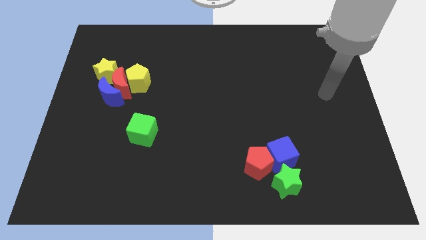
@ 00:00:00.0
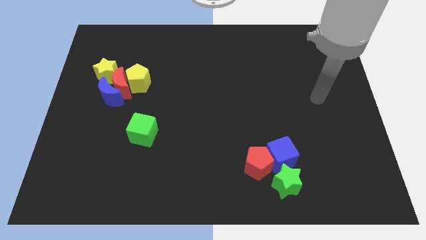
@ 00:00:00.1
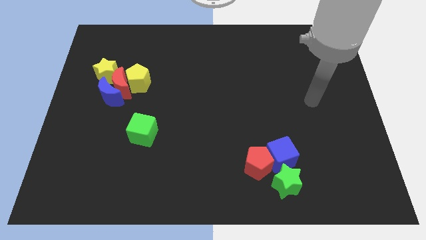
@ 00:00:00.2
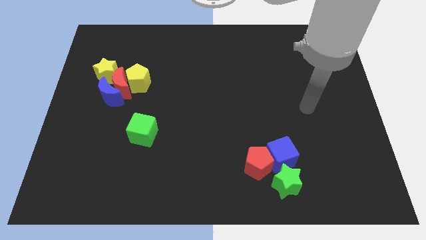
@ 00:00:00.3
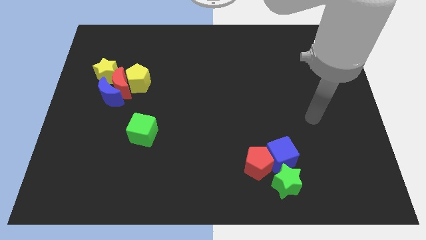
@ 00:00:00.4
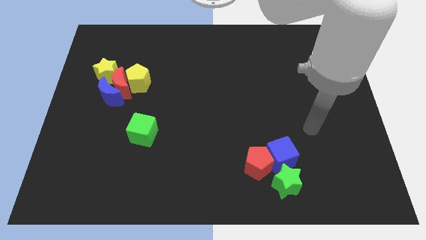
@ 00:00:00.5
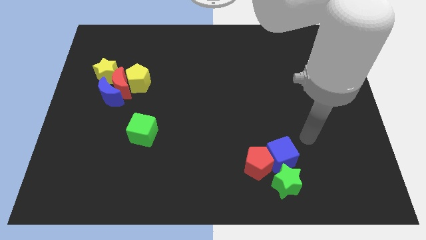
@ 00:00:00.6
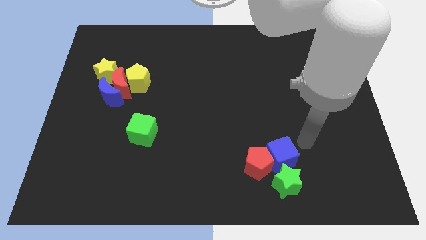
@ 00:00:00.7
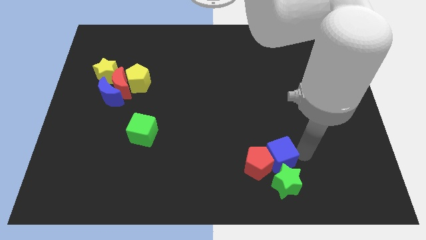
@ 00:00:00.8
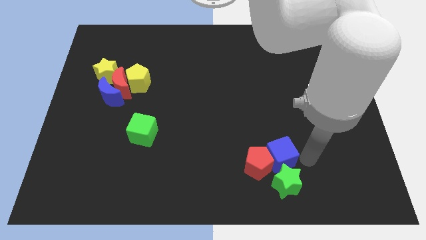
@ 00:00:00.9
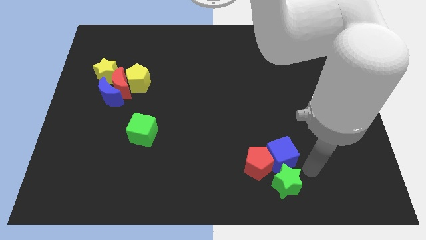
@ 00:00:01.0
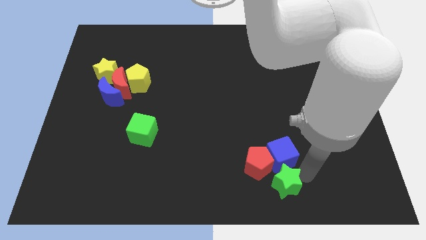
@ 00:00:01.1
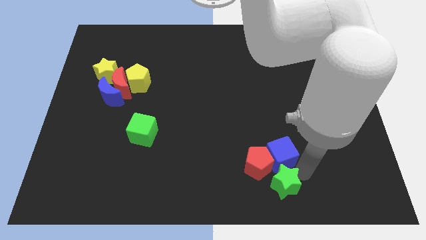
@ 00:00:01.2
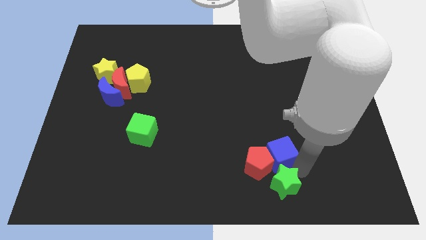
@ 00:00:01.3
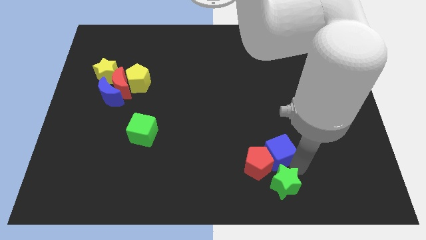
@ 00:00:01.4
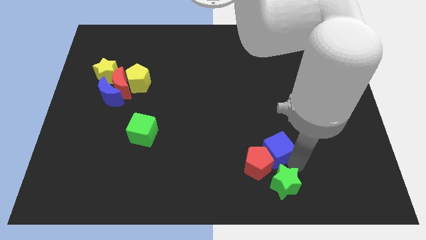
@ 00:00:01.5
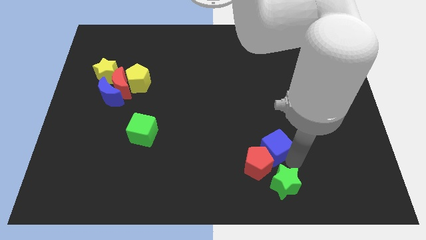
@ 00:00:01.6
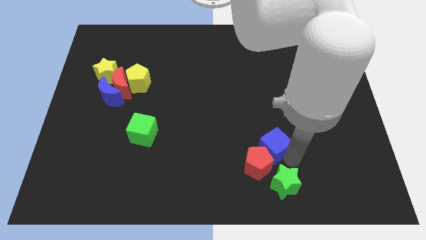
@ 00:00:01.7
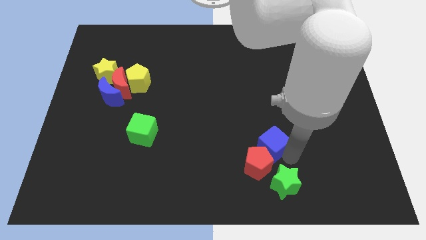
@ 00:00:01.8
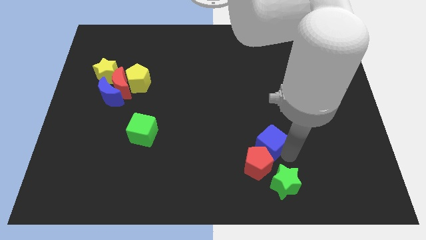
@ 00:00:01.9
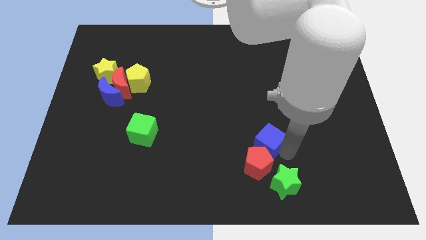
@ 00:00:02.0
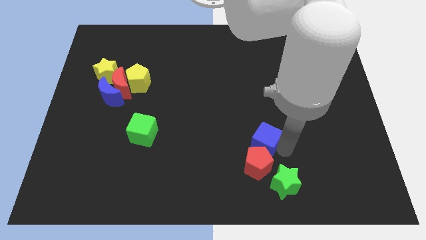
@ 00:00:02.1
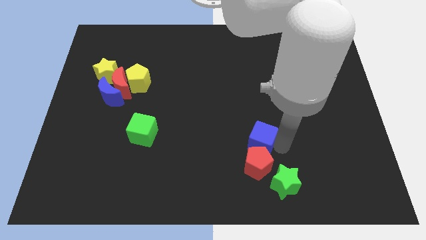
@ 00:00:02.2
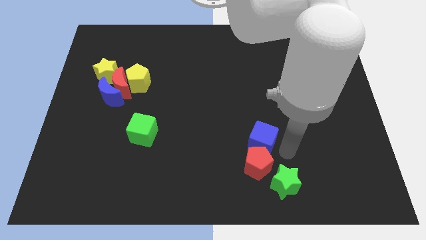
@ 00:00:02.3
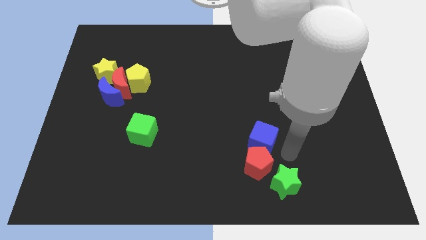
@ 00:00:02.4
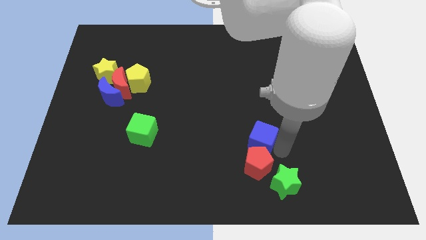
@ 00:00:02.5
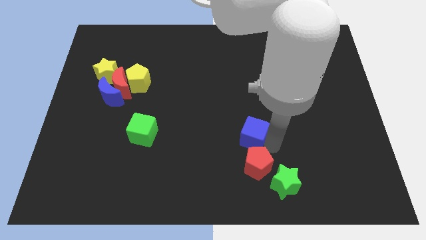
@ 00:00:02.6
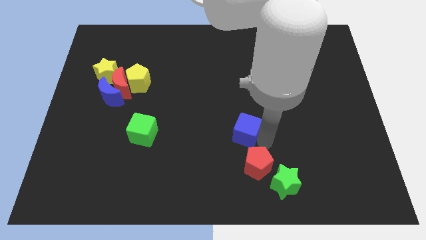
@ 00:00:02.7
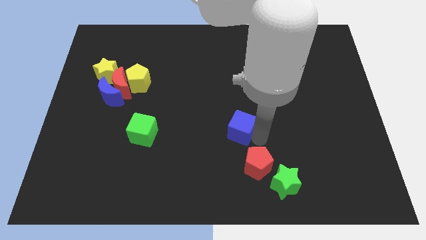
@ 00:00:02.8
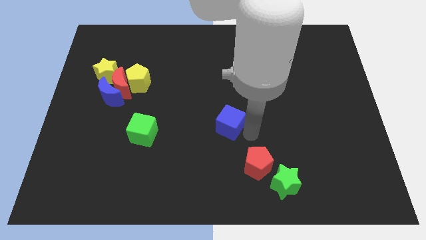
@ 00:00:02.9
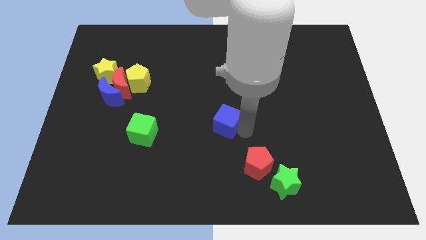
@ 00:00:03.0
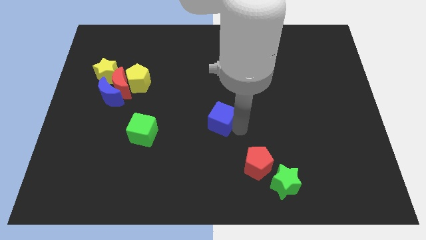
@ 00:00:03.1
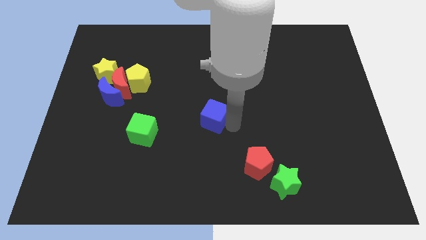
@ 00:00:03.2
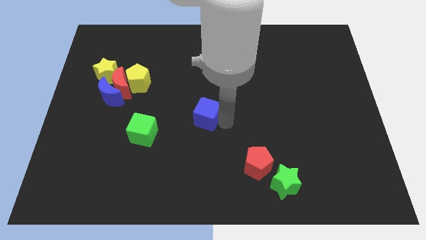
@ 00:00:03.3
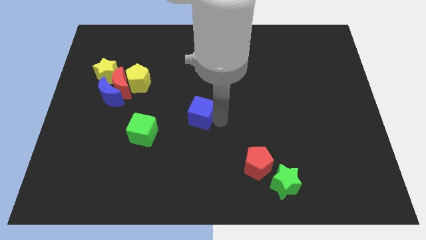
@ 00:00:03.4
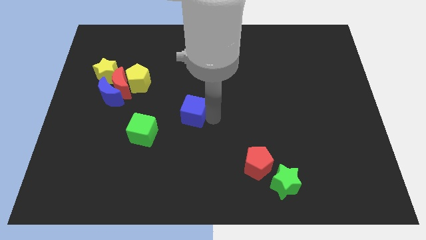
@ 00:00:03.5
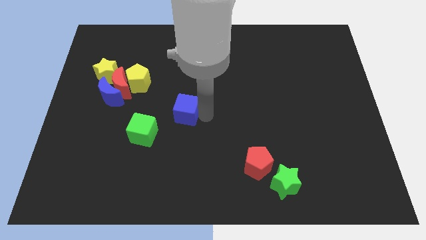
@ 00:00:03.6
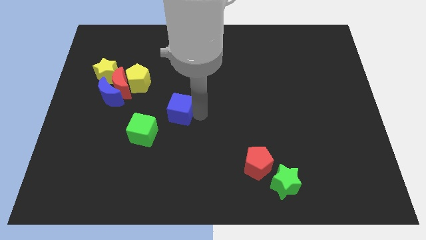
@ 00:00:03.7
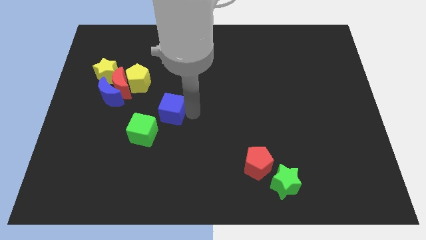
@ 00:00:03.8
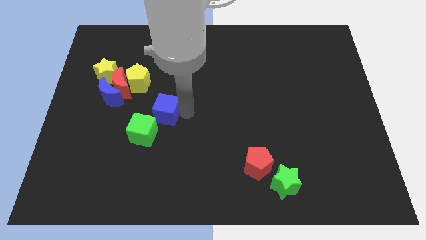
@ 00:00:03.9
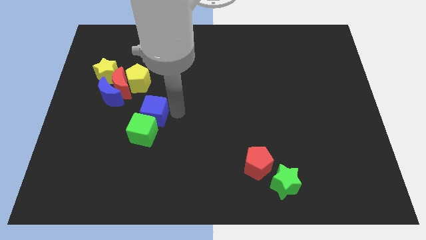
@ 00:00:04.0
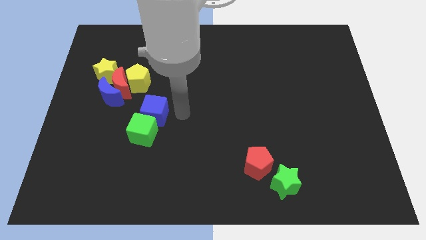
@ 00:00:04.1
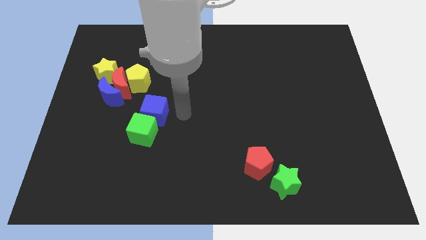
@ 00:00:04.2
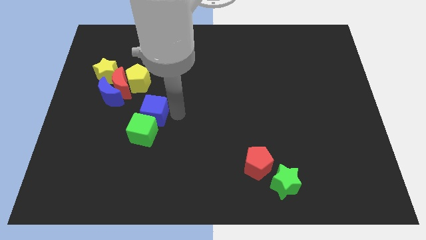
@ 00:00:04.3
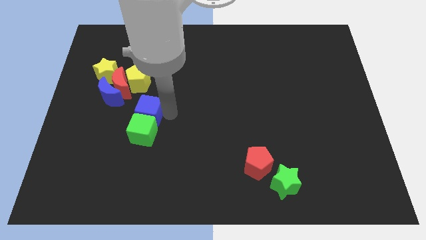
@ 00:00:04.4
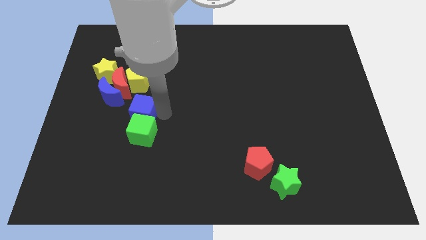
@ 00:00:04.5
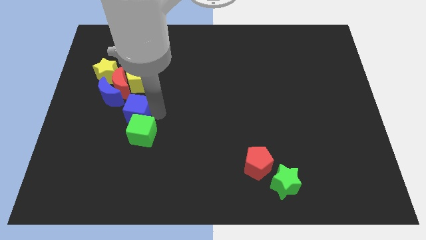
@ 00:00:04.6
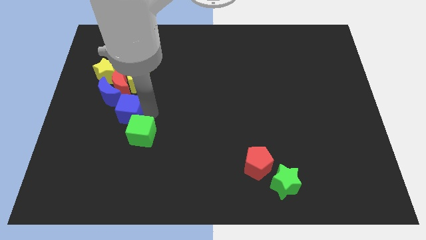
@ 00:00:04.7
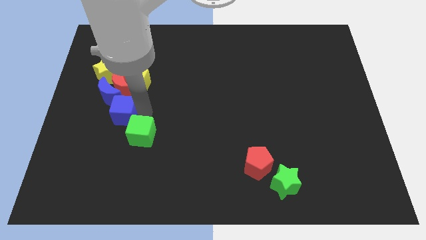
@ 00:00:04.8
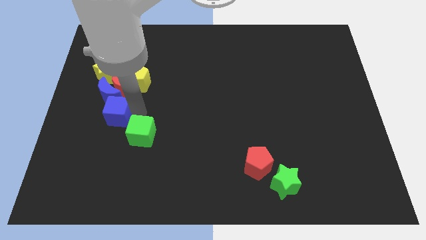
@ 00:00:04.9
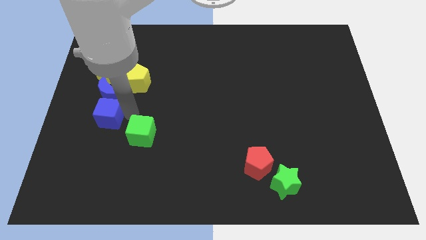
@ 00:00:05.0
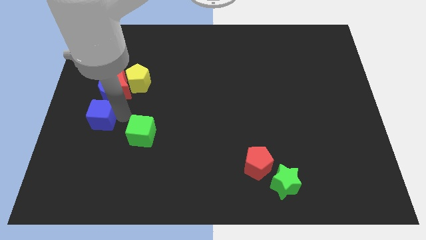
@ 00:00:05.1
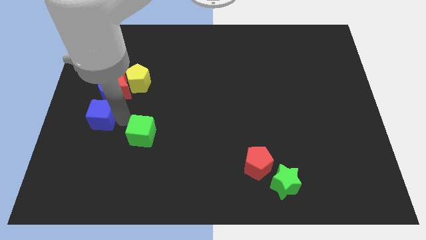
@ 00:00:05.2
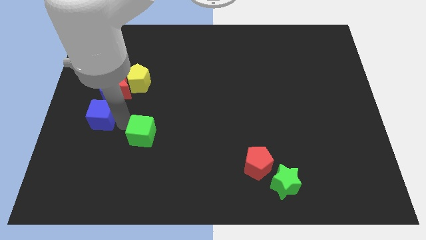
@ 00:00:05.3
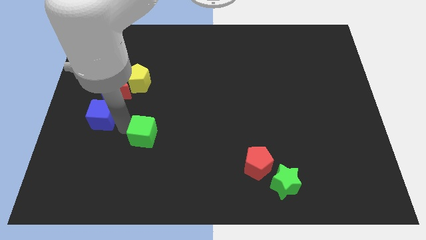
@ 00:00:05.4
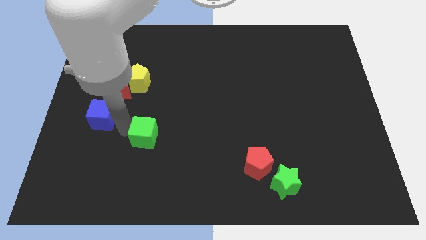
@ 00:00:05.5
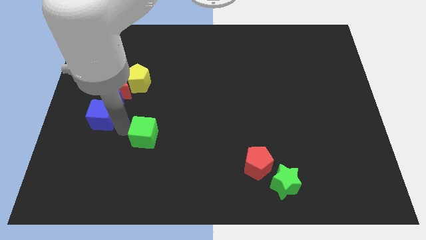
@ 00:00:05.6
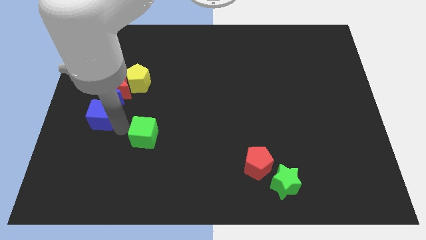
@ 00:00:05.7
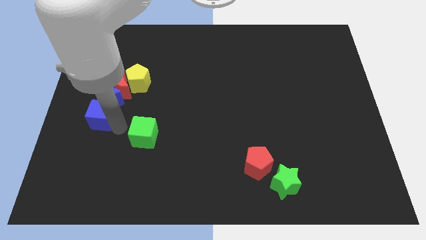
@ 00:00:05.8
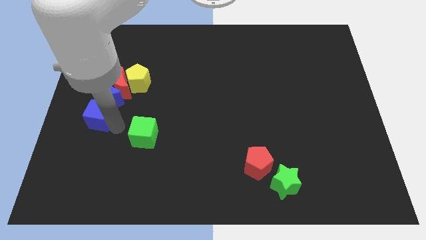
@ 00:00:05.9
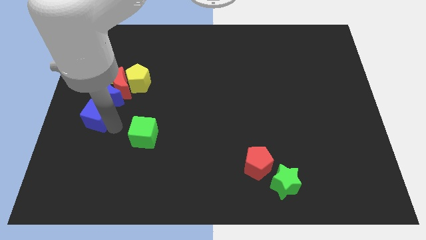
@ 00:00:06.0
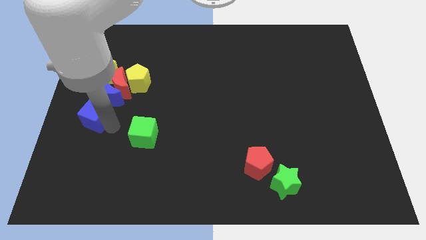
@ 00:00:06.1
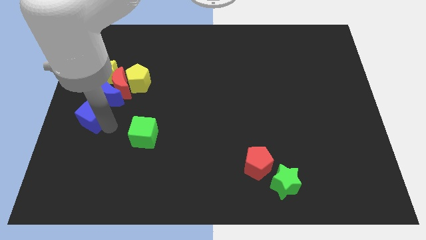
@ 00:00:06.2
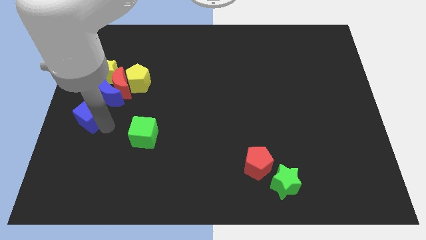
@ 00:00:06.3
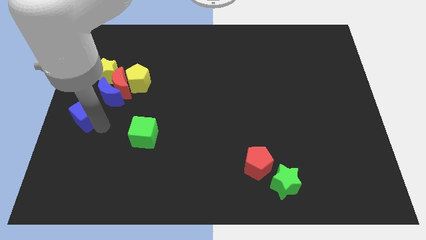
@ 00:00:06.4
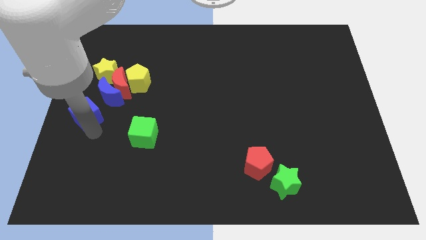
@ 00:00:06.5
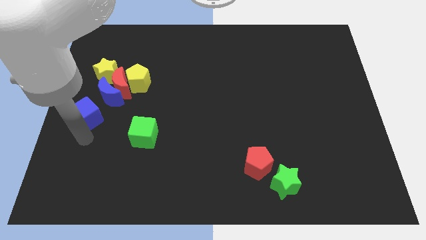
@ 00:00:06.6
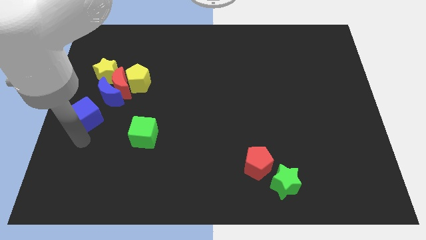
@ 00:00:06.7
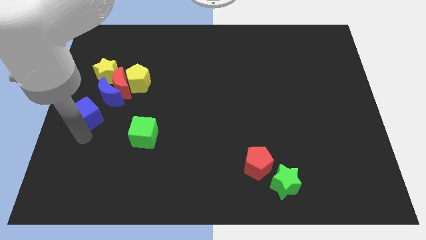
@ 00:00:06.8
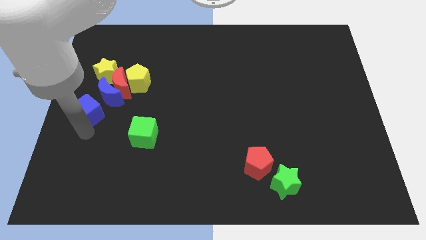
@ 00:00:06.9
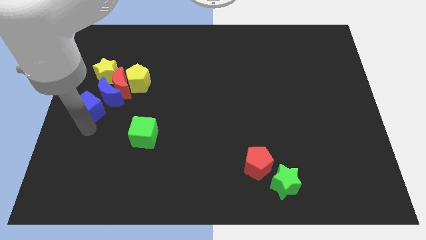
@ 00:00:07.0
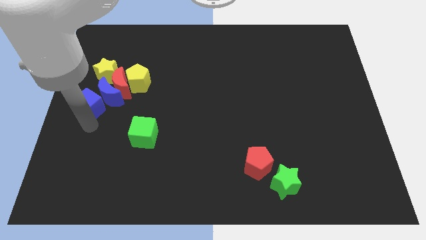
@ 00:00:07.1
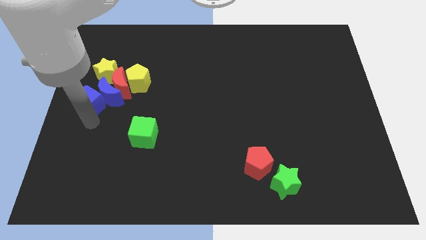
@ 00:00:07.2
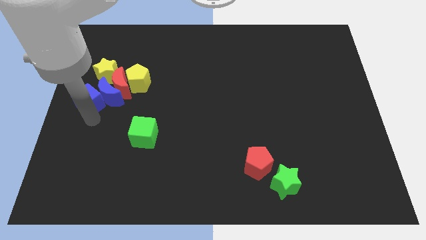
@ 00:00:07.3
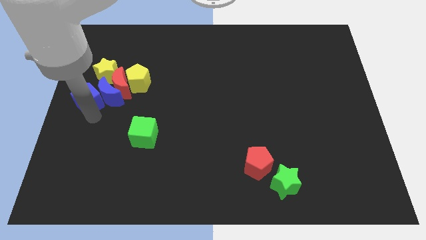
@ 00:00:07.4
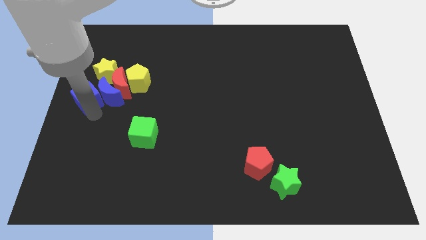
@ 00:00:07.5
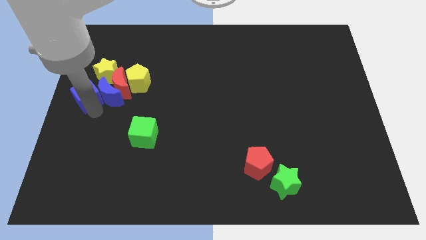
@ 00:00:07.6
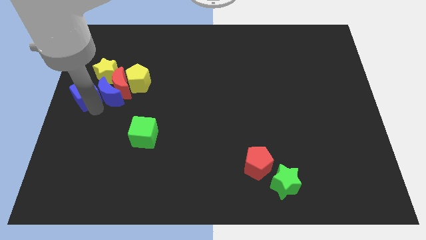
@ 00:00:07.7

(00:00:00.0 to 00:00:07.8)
slide the blue cube to the left of the yellow pentagon
